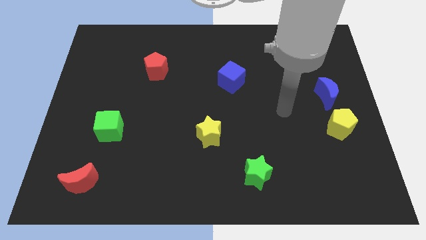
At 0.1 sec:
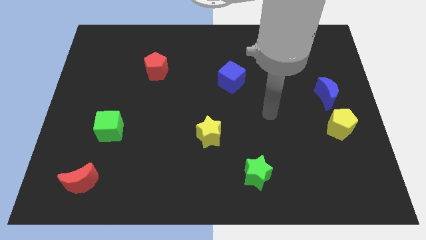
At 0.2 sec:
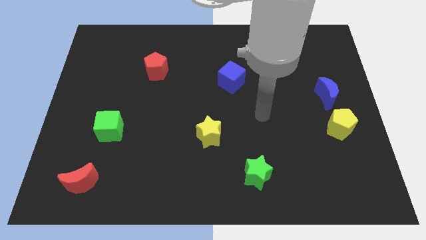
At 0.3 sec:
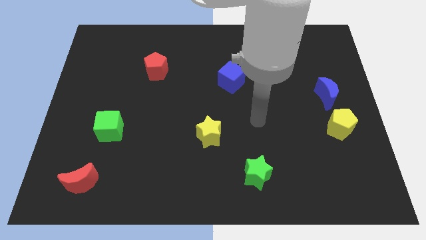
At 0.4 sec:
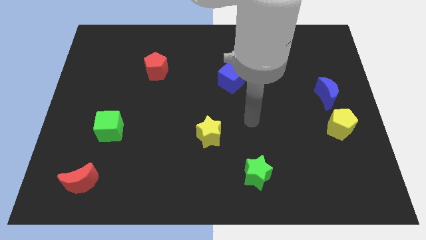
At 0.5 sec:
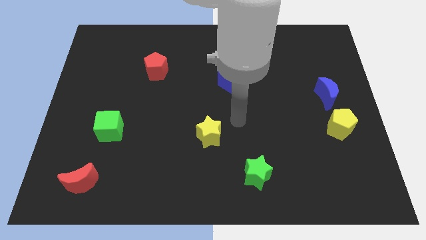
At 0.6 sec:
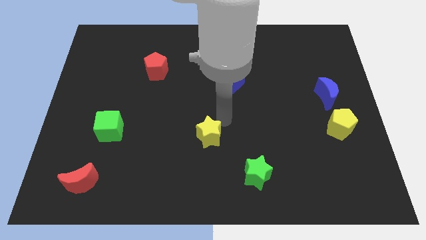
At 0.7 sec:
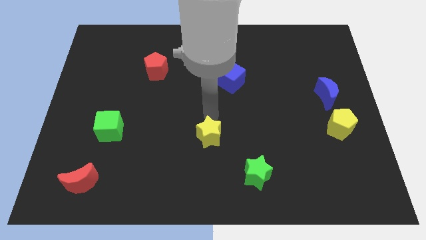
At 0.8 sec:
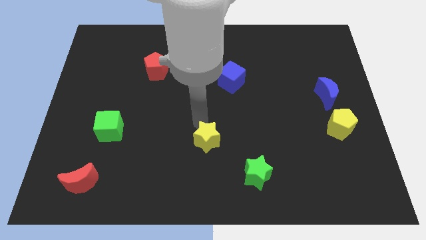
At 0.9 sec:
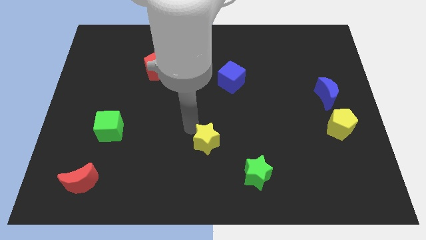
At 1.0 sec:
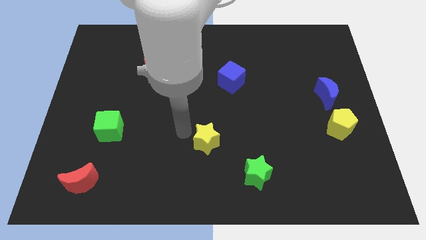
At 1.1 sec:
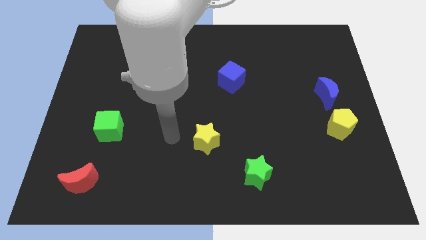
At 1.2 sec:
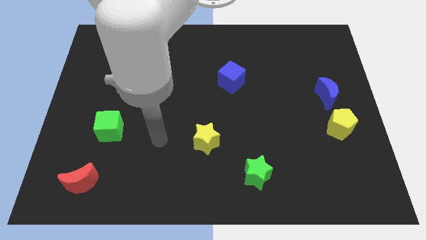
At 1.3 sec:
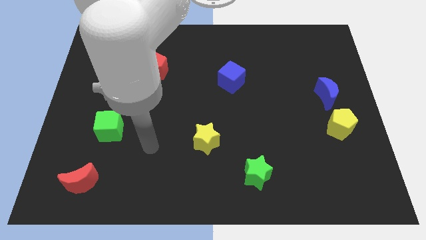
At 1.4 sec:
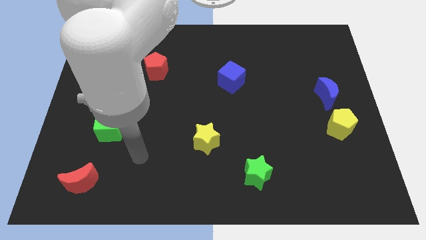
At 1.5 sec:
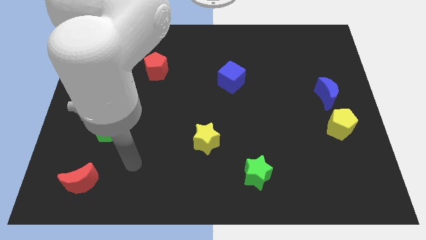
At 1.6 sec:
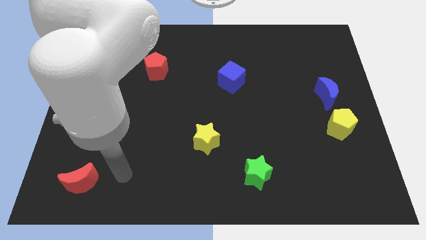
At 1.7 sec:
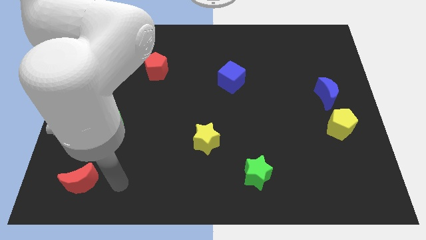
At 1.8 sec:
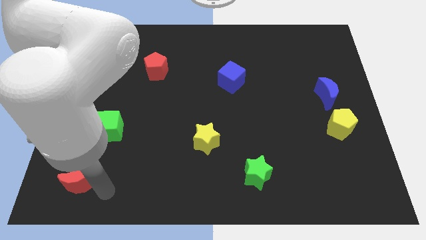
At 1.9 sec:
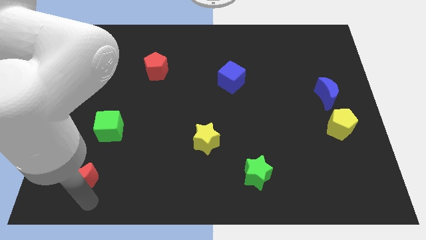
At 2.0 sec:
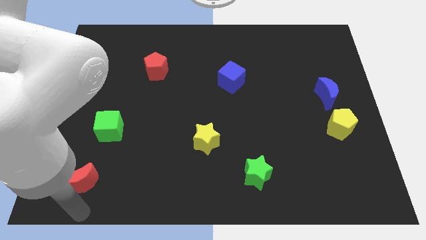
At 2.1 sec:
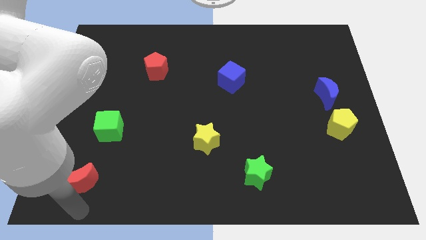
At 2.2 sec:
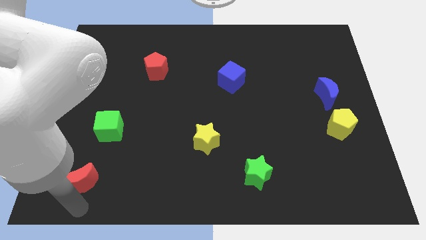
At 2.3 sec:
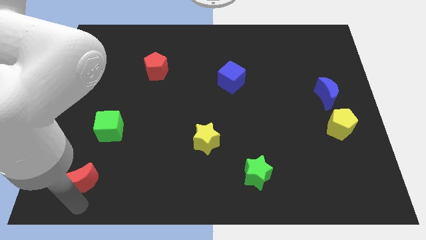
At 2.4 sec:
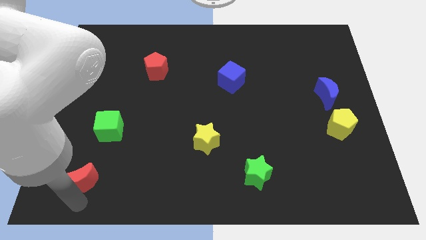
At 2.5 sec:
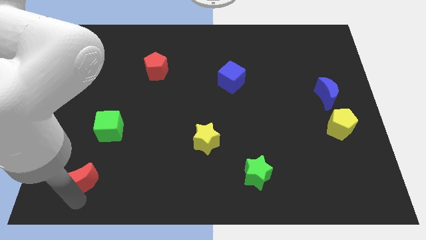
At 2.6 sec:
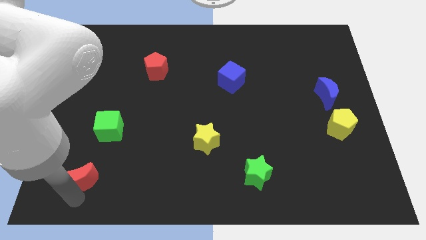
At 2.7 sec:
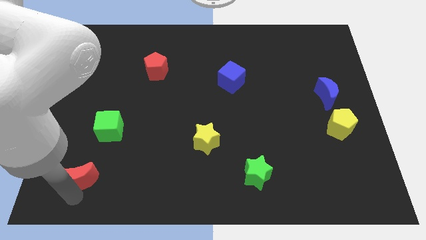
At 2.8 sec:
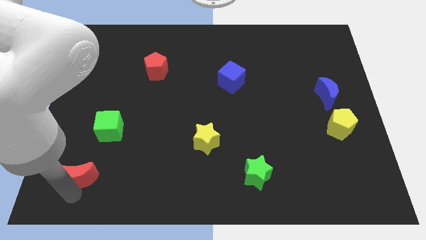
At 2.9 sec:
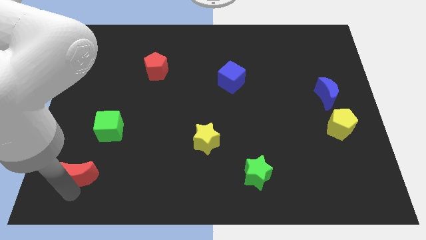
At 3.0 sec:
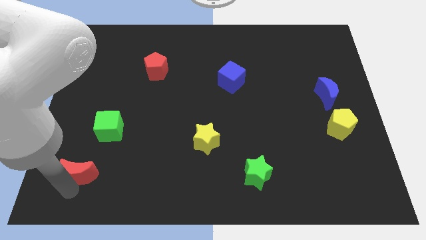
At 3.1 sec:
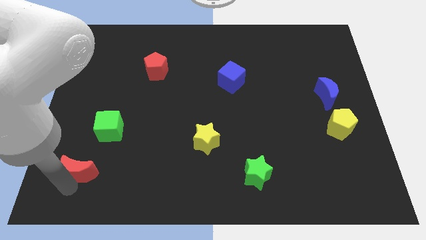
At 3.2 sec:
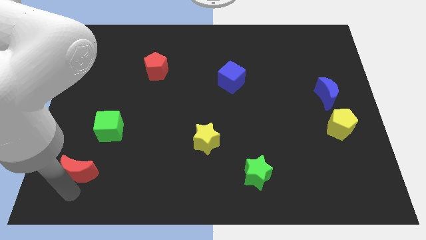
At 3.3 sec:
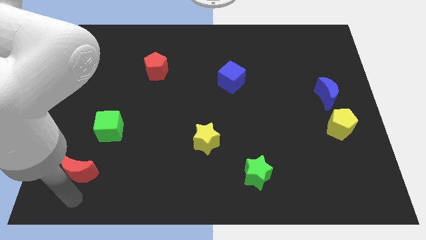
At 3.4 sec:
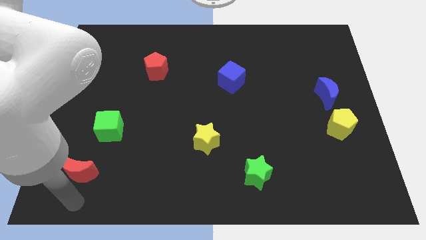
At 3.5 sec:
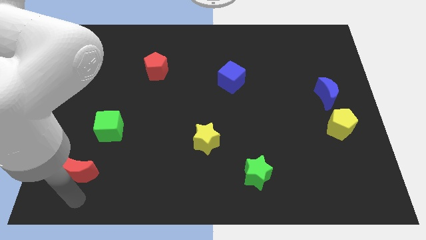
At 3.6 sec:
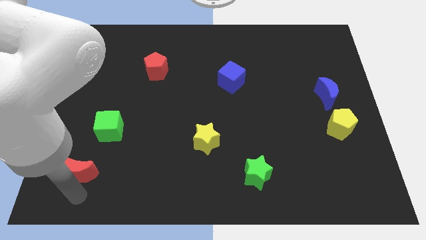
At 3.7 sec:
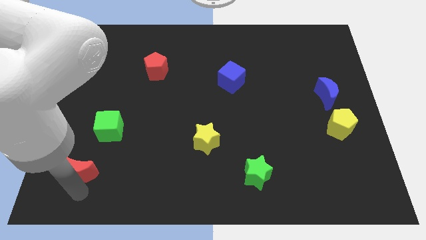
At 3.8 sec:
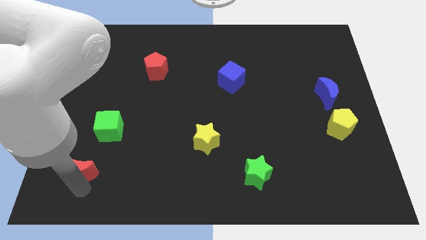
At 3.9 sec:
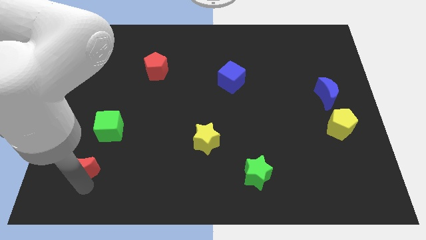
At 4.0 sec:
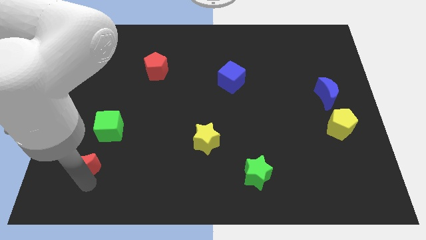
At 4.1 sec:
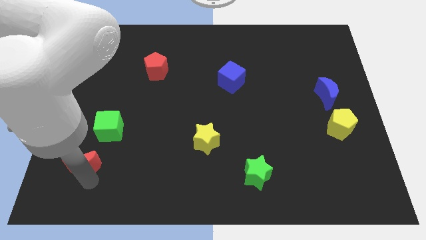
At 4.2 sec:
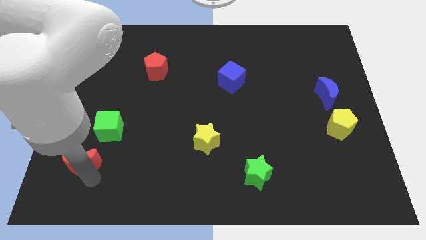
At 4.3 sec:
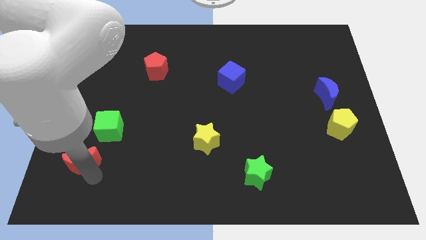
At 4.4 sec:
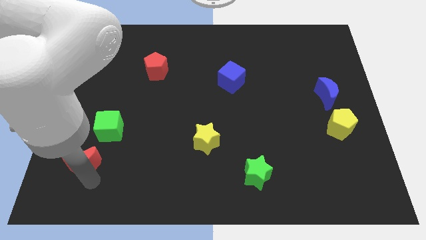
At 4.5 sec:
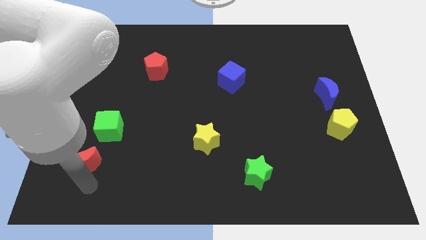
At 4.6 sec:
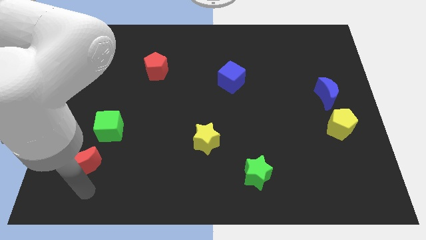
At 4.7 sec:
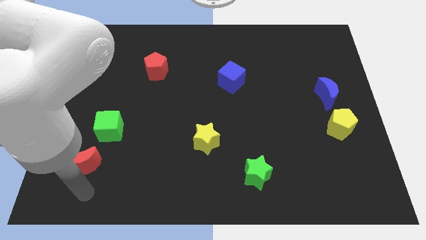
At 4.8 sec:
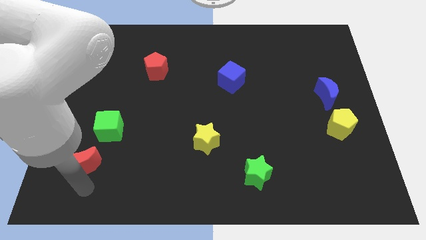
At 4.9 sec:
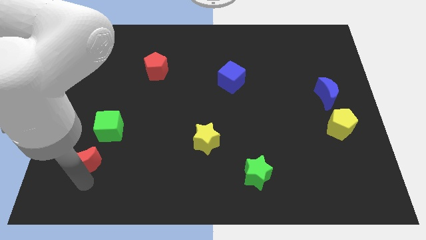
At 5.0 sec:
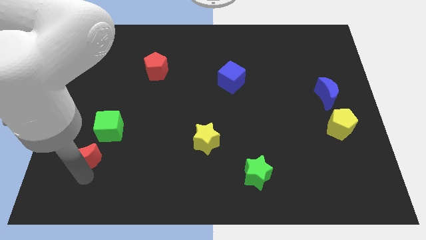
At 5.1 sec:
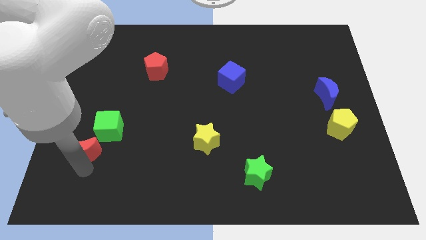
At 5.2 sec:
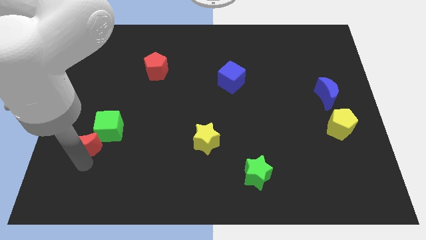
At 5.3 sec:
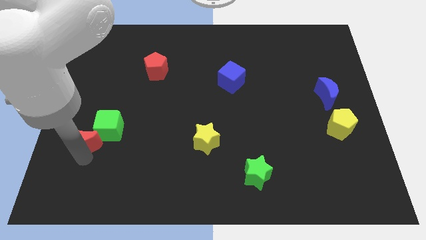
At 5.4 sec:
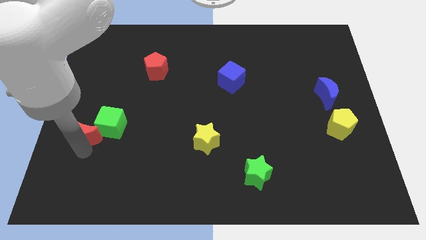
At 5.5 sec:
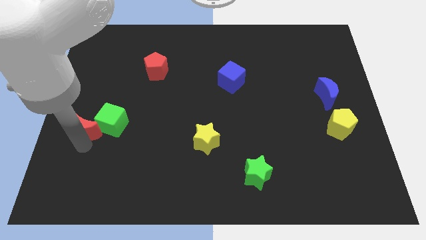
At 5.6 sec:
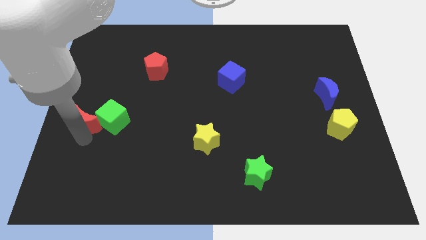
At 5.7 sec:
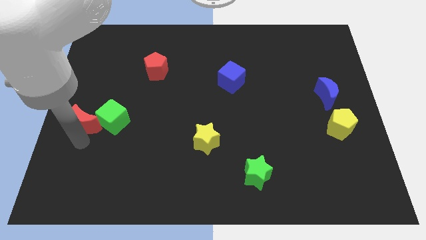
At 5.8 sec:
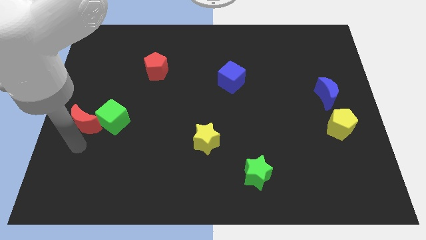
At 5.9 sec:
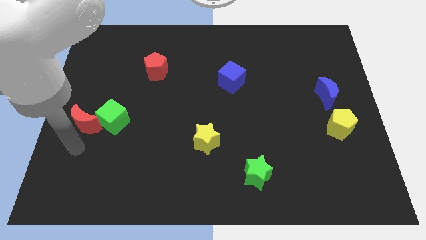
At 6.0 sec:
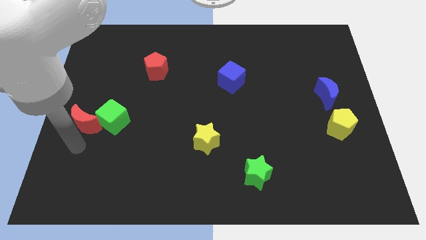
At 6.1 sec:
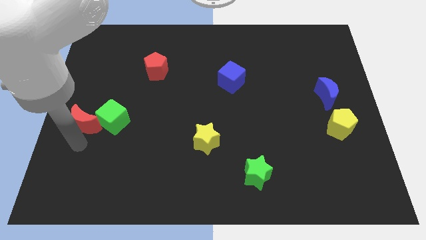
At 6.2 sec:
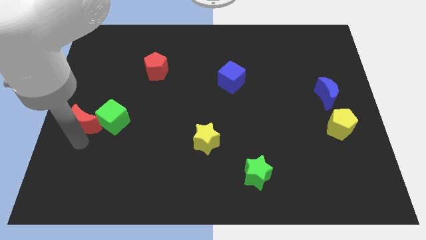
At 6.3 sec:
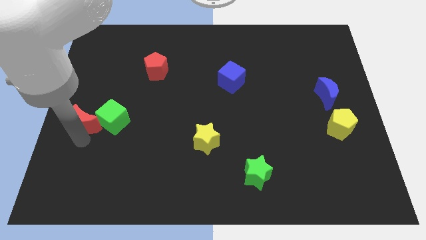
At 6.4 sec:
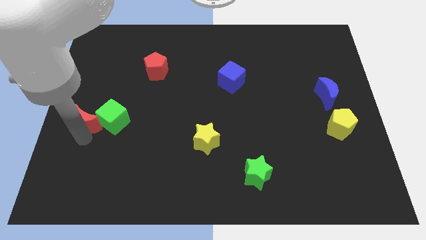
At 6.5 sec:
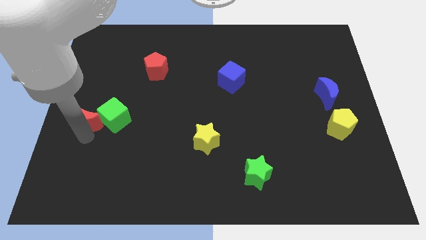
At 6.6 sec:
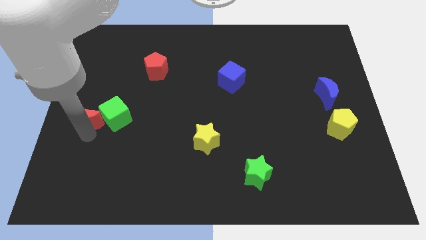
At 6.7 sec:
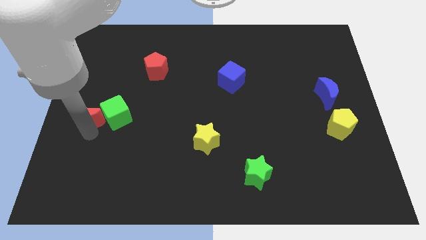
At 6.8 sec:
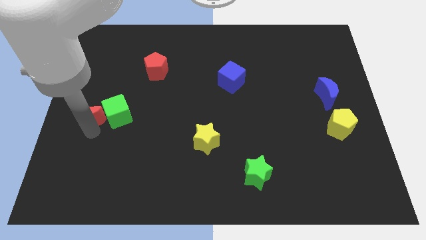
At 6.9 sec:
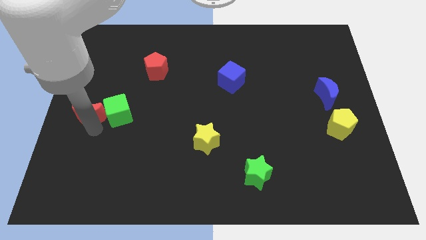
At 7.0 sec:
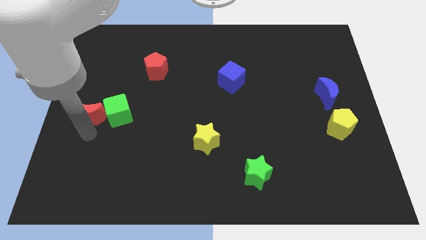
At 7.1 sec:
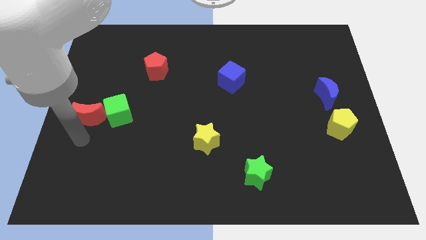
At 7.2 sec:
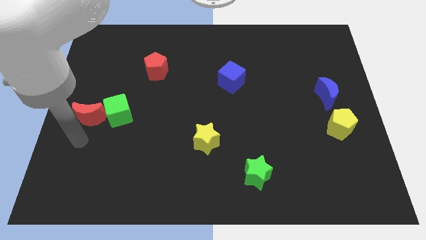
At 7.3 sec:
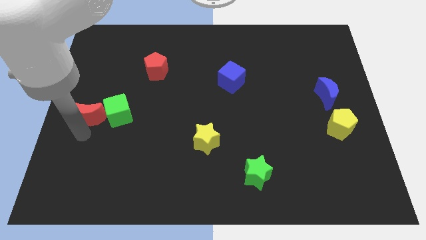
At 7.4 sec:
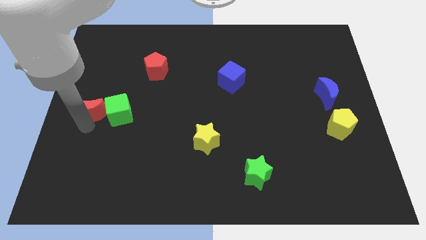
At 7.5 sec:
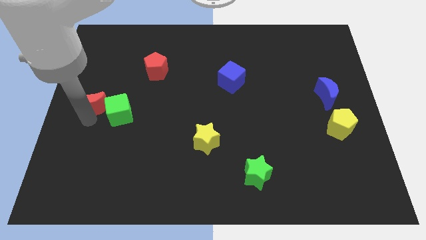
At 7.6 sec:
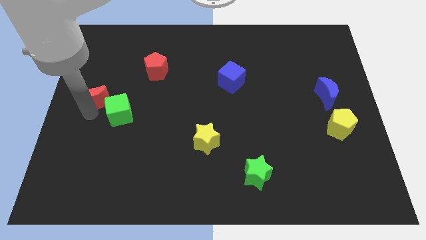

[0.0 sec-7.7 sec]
slide the red moon up

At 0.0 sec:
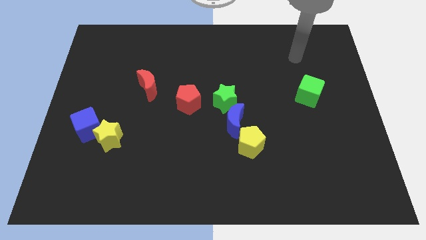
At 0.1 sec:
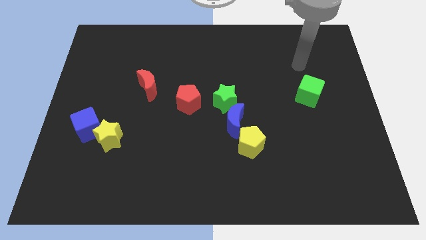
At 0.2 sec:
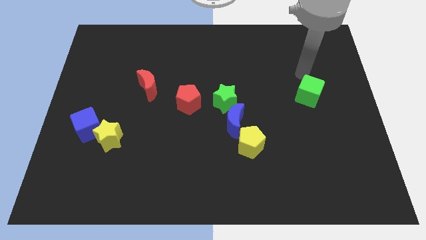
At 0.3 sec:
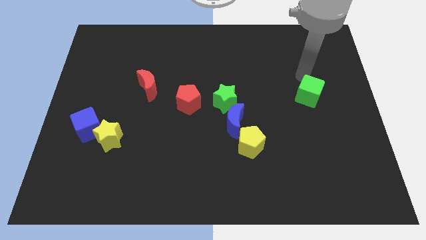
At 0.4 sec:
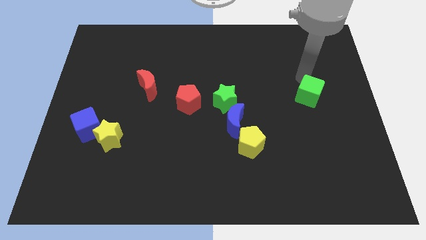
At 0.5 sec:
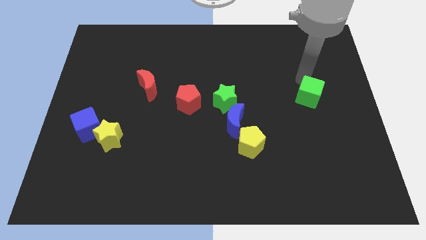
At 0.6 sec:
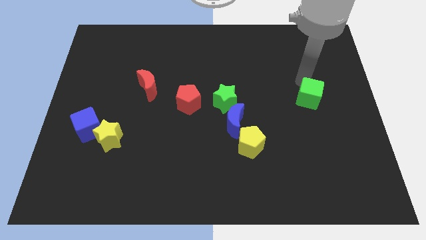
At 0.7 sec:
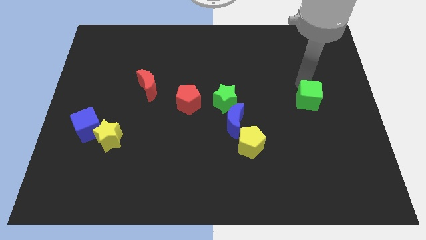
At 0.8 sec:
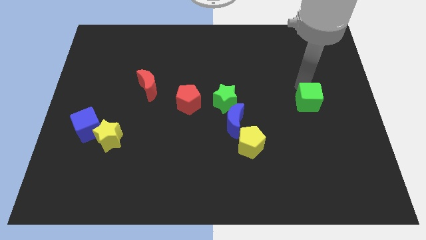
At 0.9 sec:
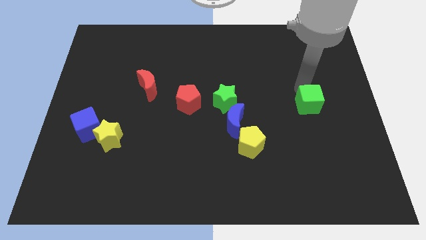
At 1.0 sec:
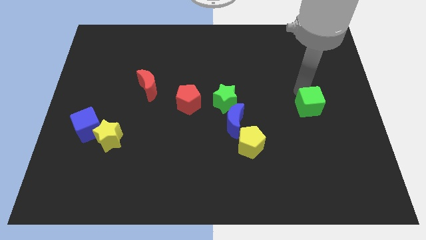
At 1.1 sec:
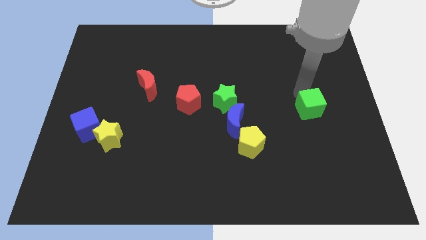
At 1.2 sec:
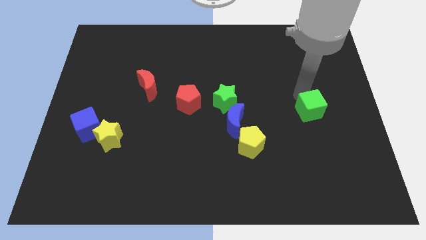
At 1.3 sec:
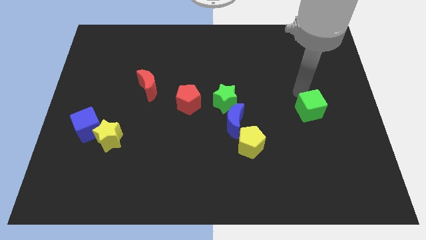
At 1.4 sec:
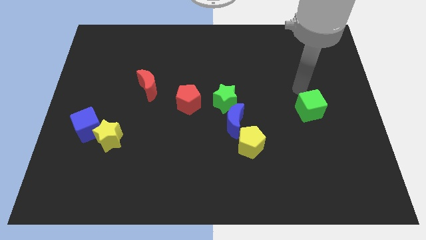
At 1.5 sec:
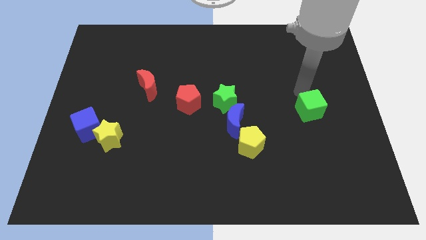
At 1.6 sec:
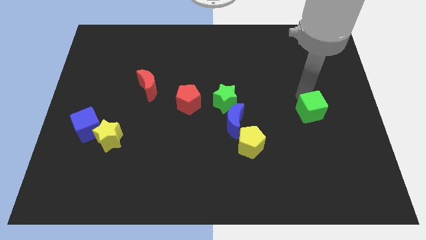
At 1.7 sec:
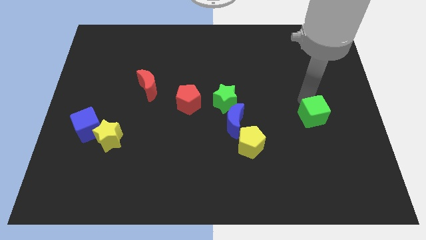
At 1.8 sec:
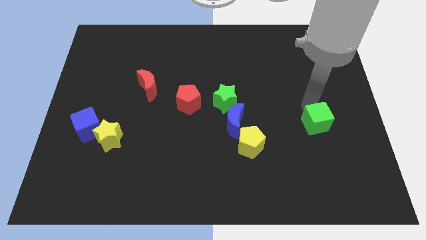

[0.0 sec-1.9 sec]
push the green cube down a bit
